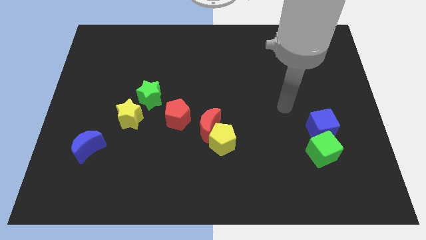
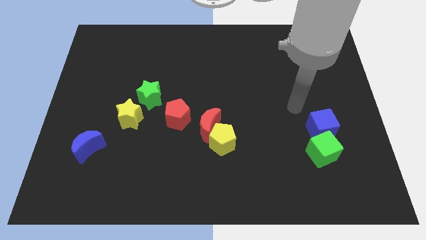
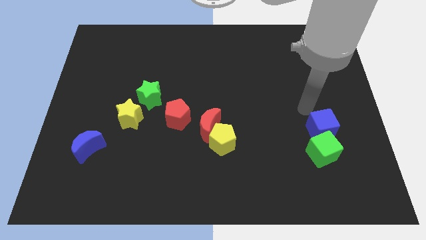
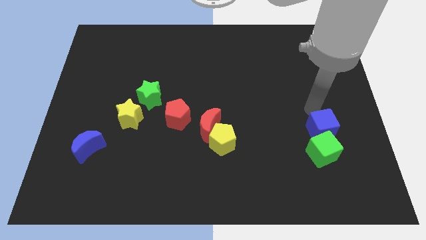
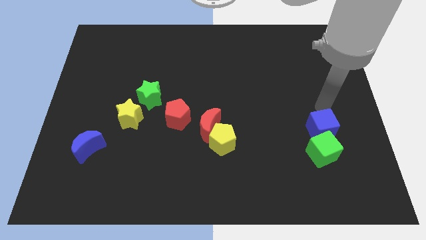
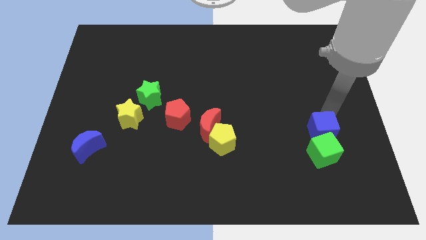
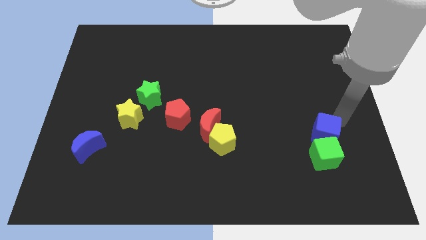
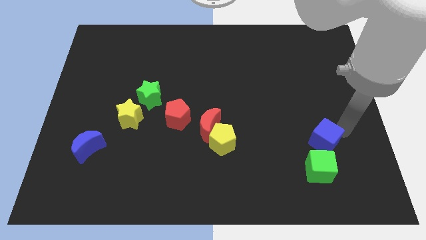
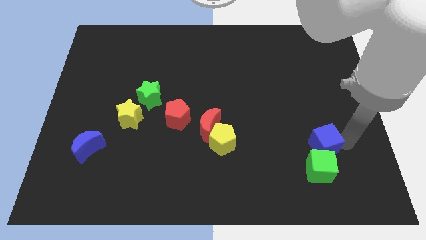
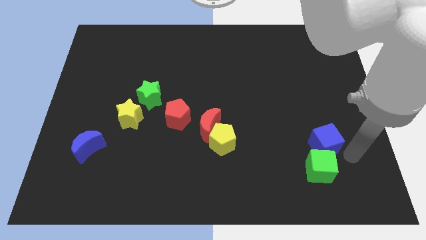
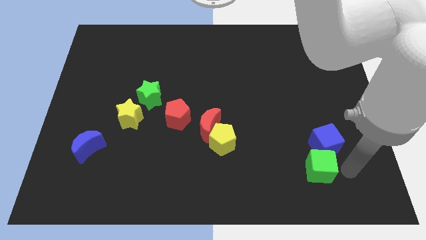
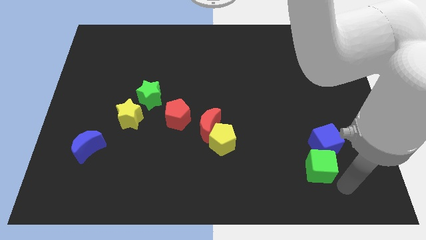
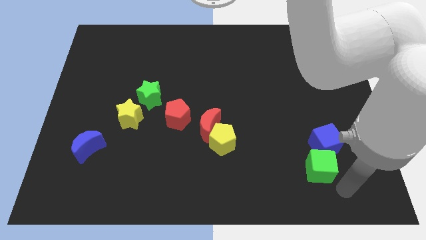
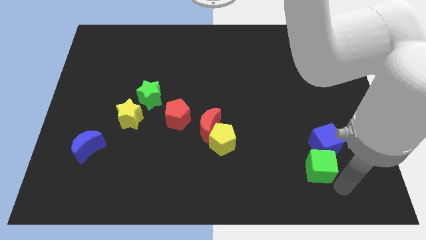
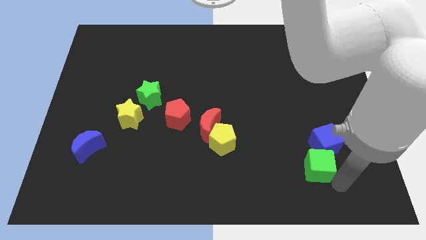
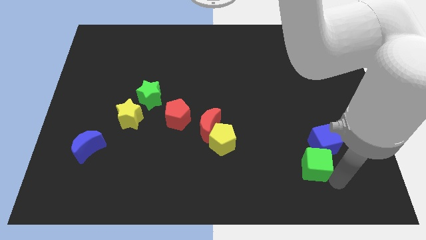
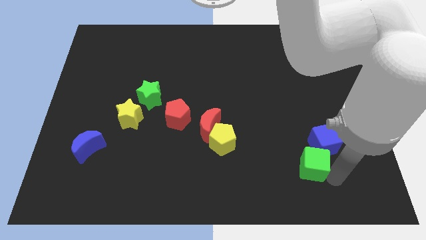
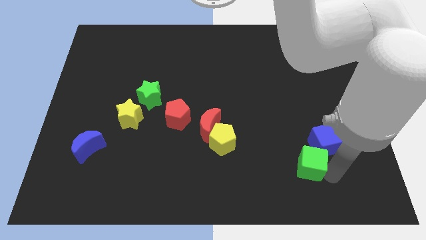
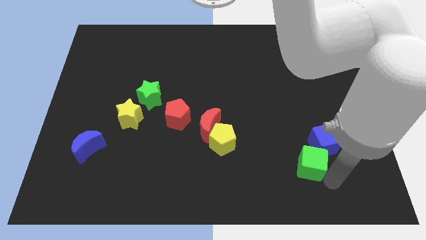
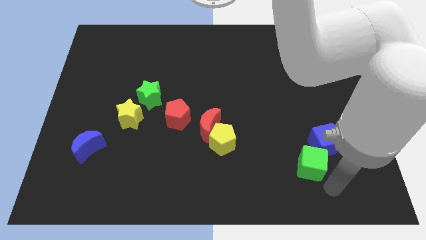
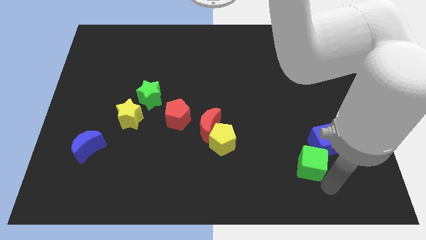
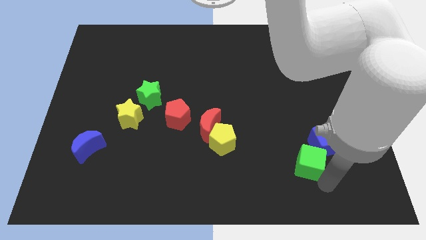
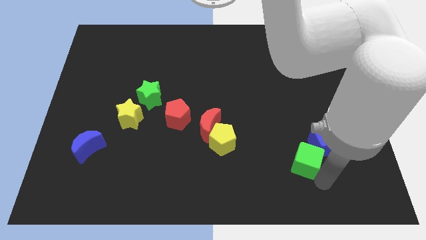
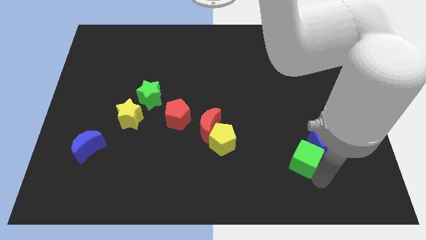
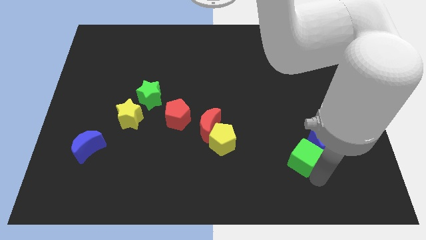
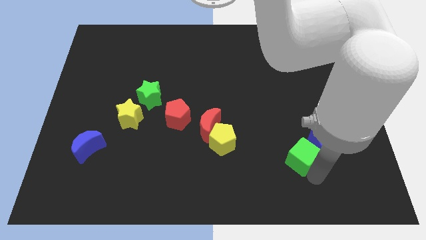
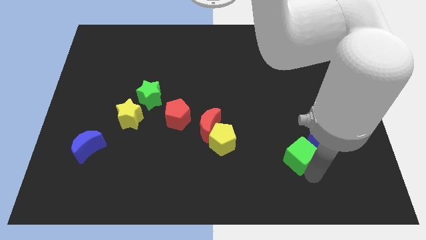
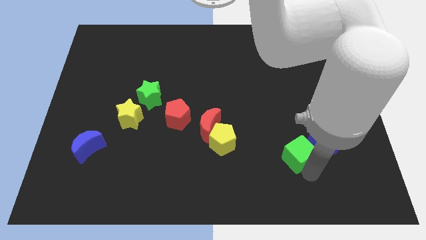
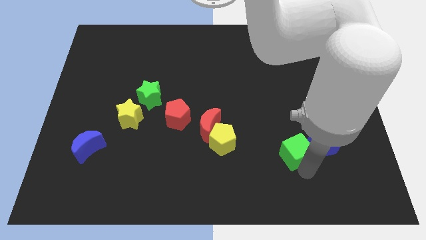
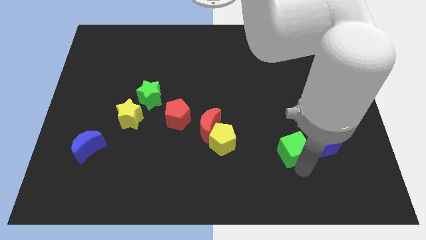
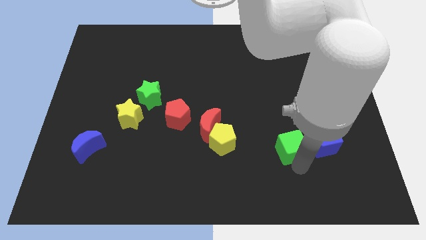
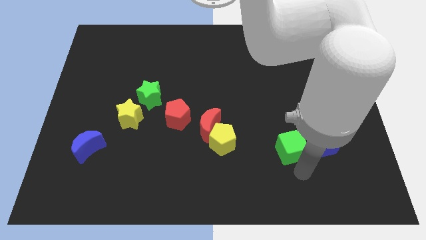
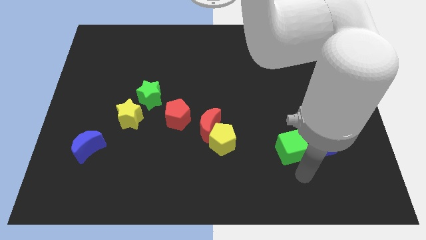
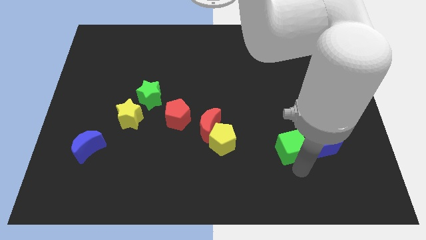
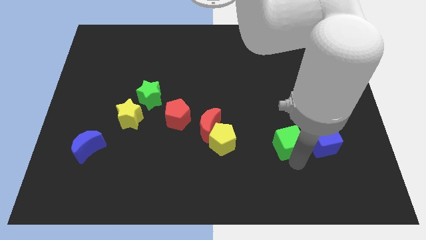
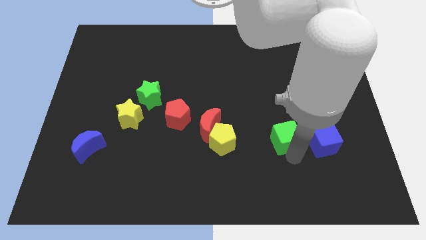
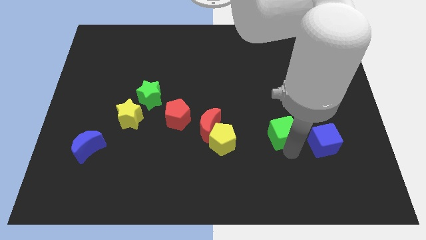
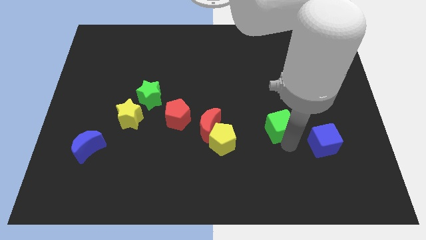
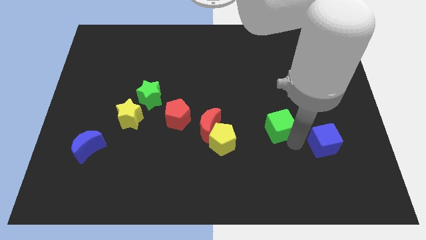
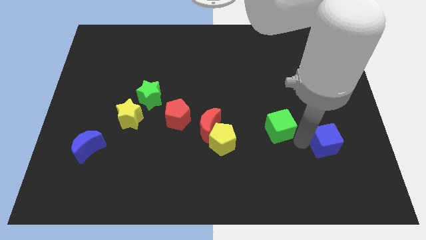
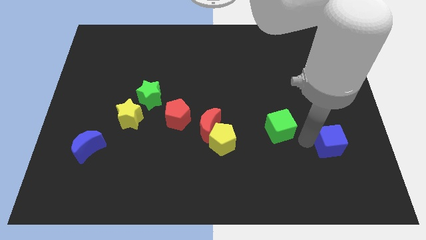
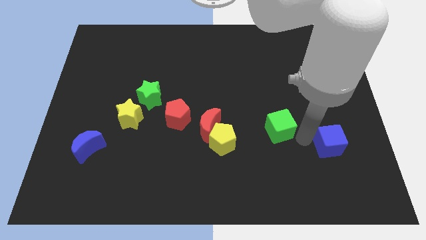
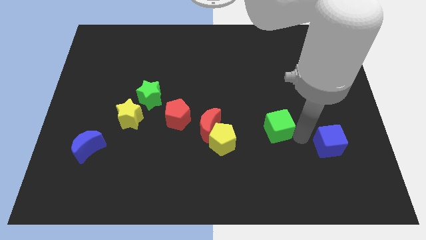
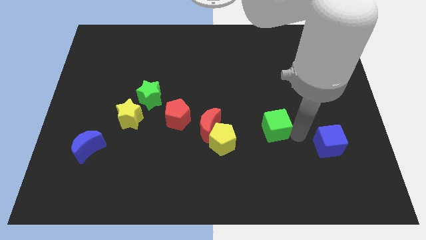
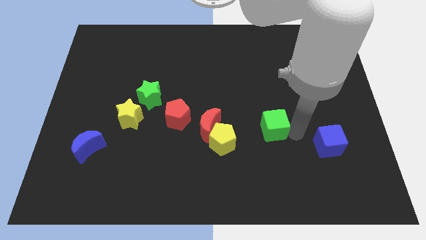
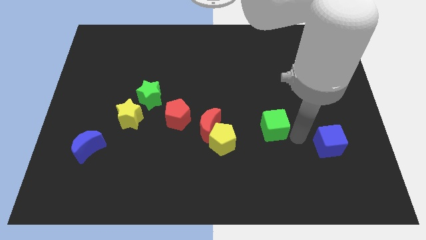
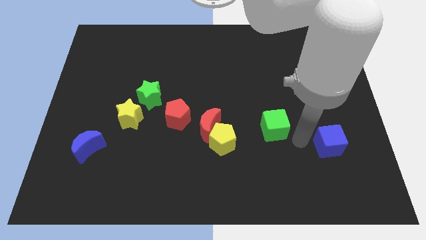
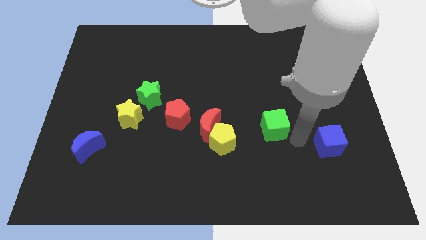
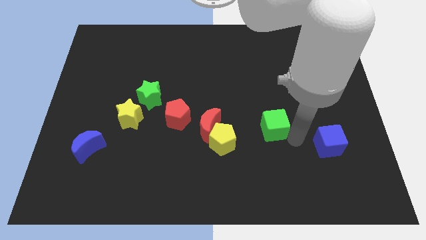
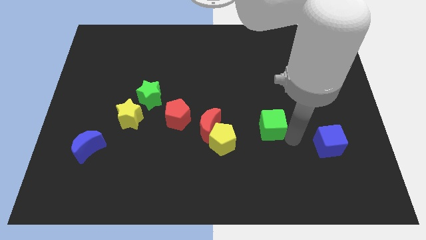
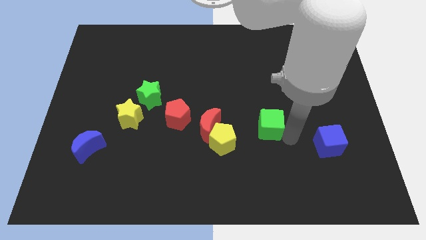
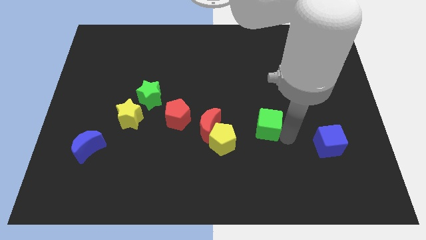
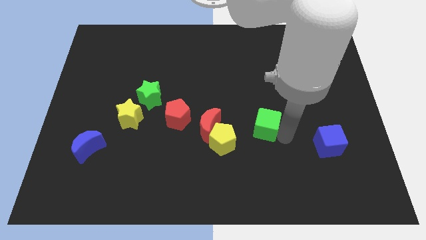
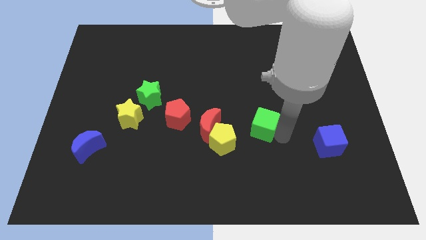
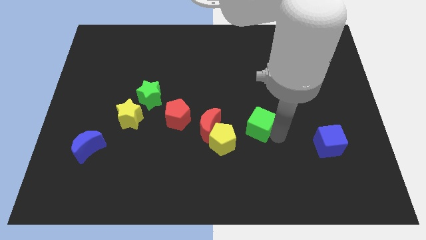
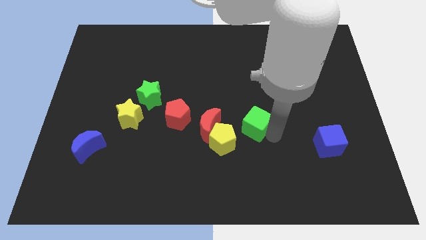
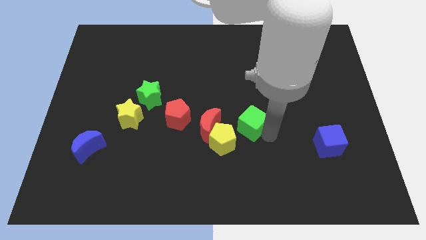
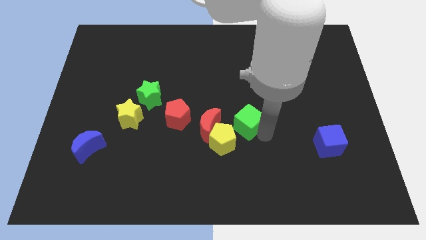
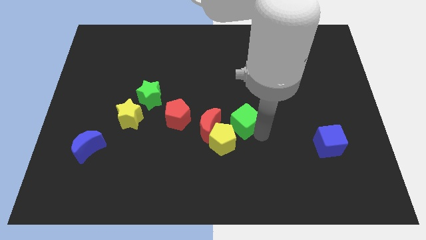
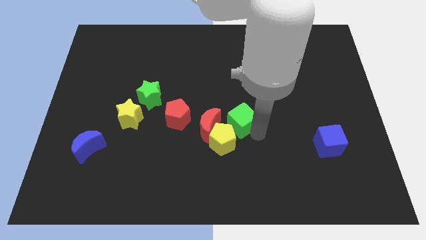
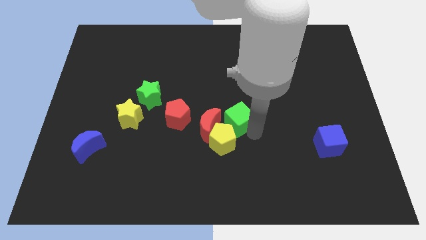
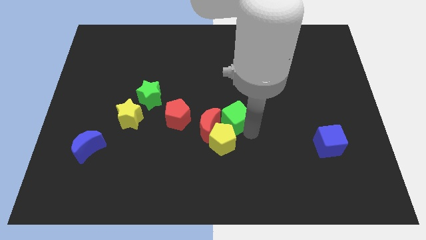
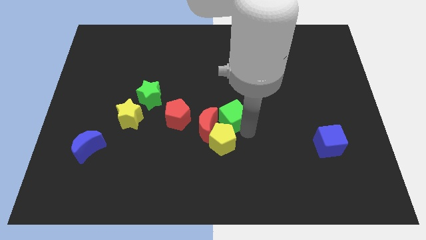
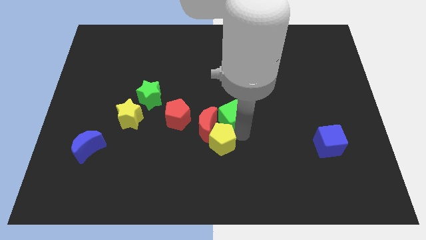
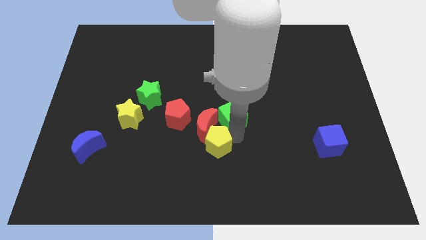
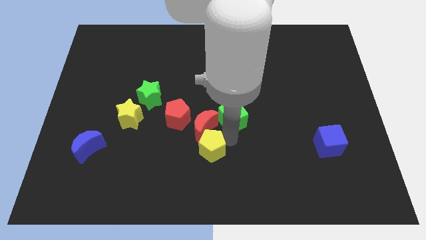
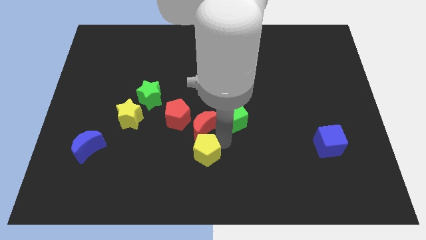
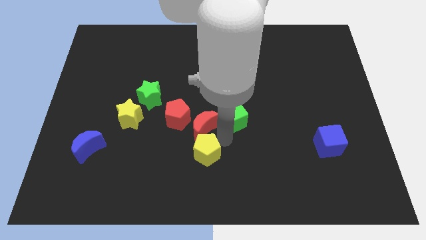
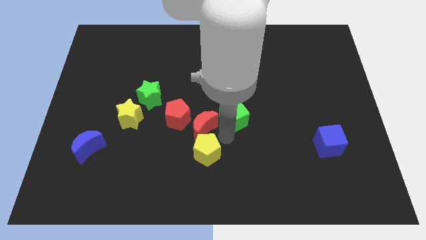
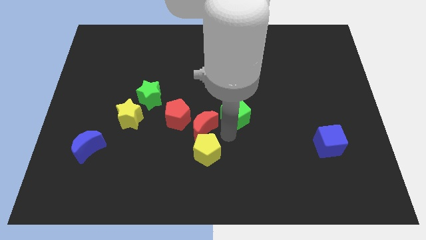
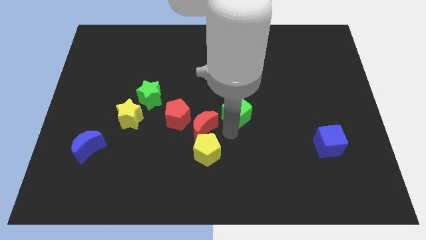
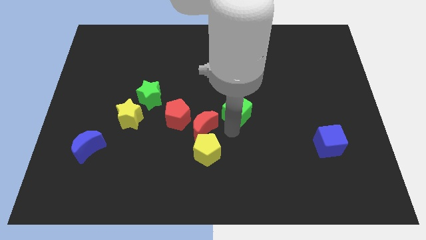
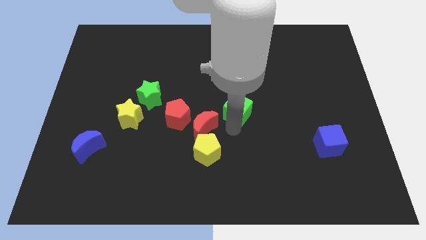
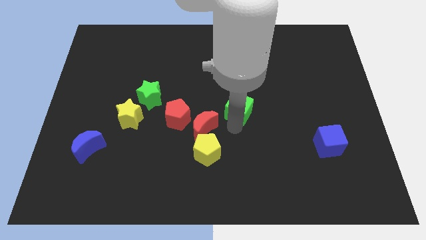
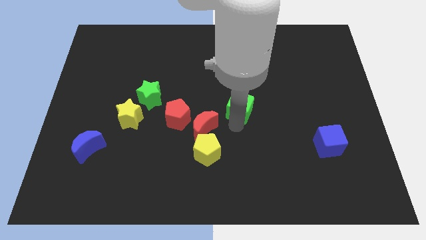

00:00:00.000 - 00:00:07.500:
slide the green cube up and to the left diagonally

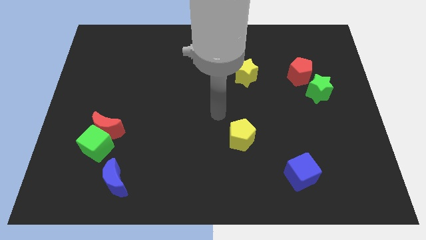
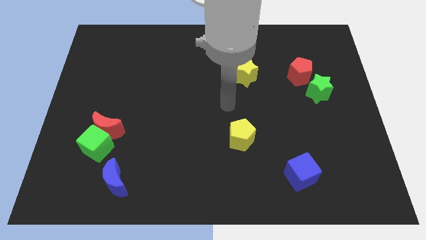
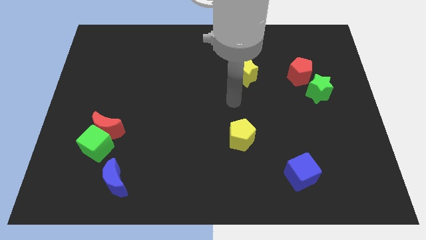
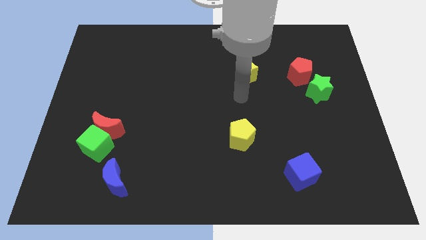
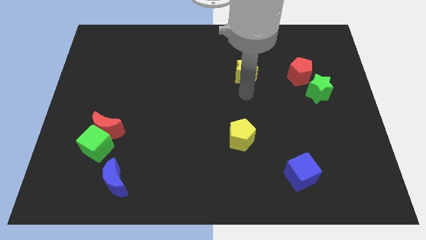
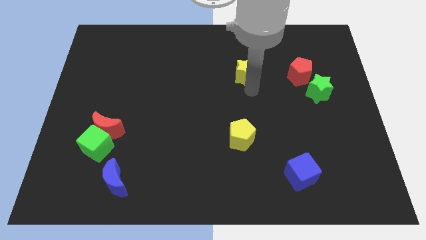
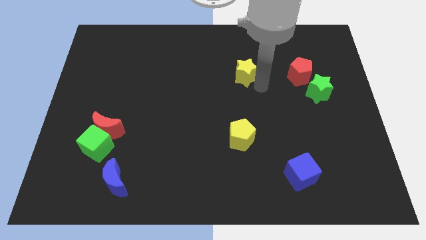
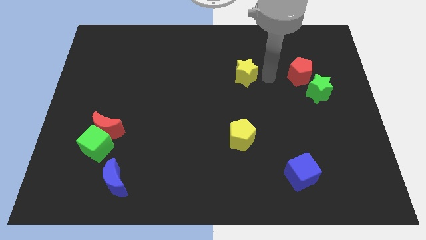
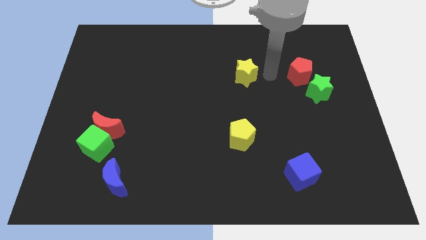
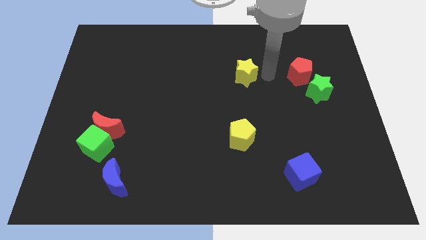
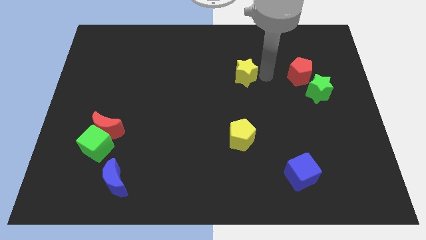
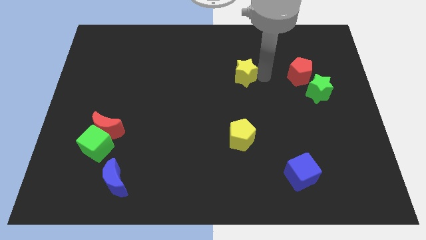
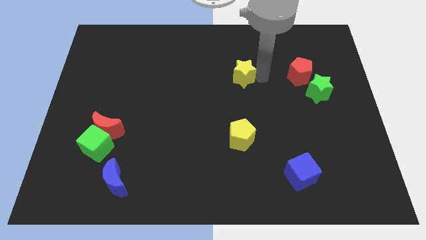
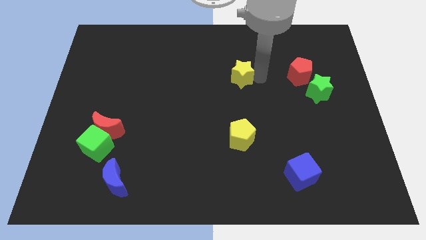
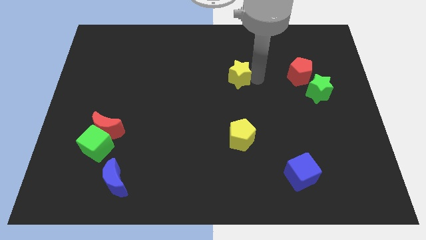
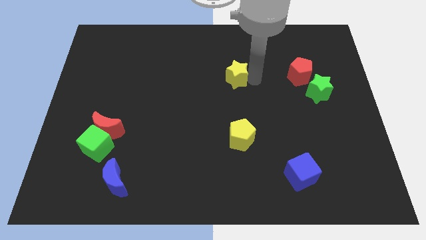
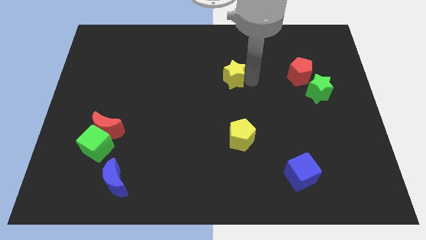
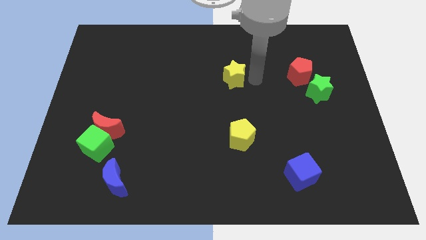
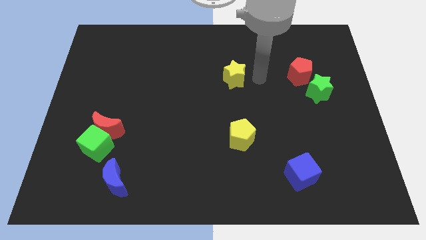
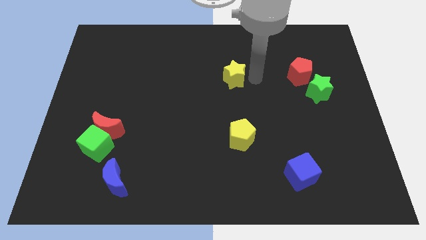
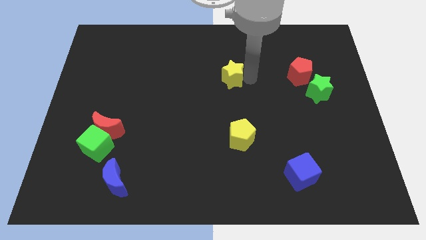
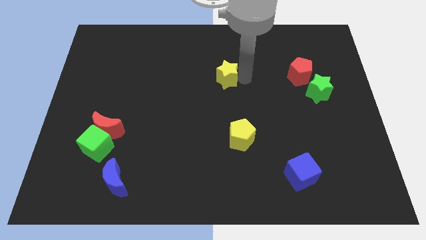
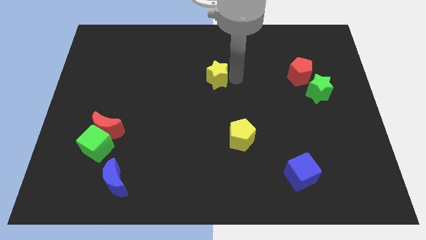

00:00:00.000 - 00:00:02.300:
push the yellow star left somewhat
